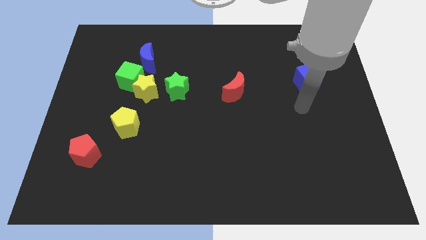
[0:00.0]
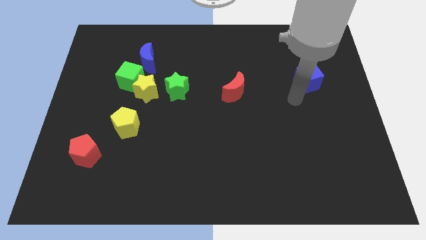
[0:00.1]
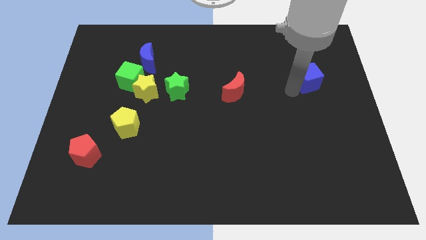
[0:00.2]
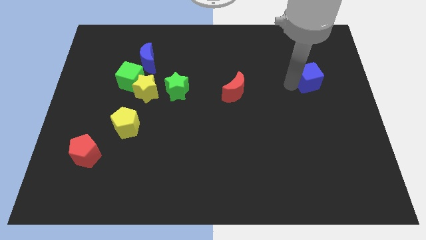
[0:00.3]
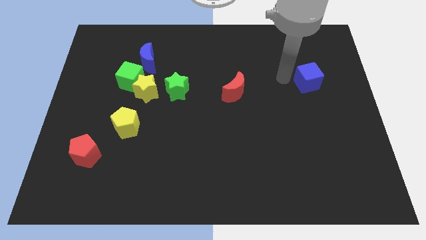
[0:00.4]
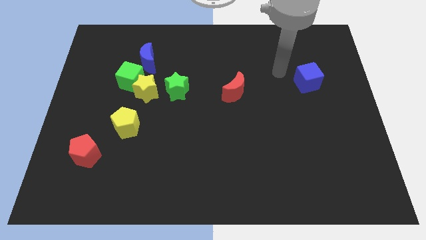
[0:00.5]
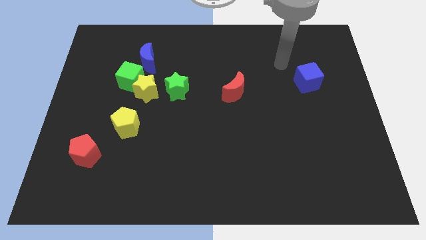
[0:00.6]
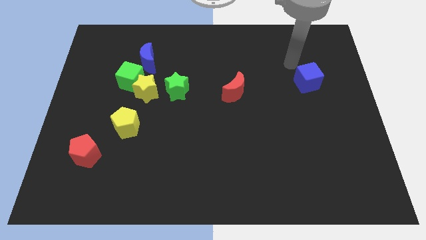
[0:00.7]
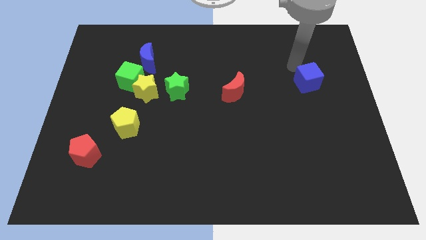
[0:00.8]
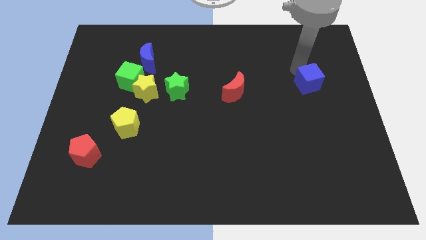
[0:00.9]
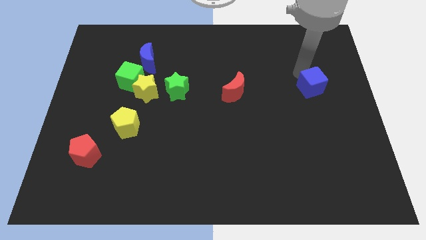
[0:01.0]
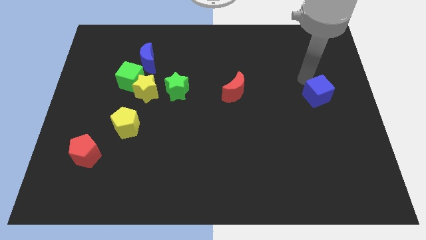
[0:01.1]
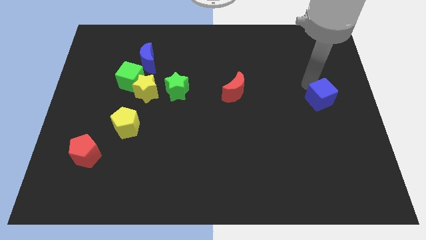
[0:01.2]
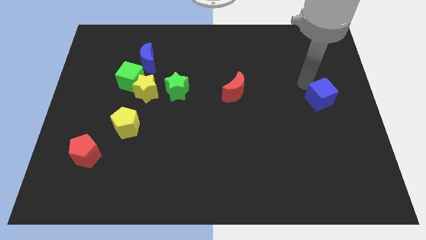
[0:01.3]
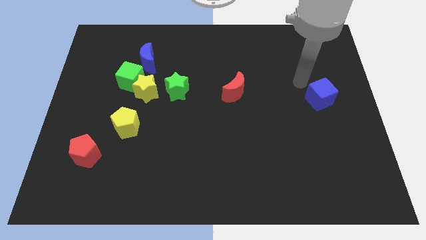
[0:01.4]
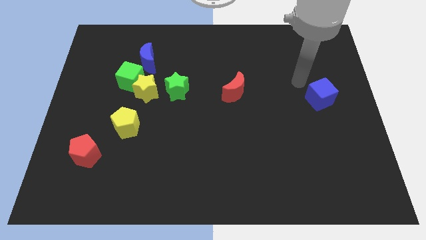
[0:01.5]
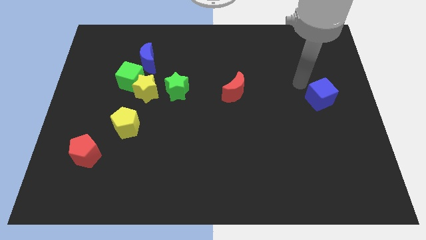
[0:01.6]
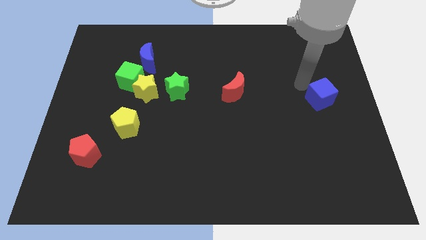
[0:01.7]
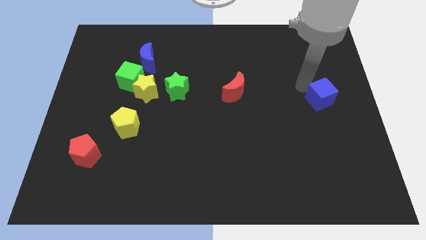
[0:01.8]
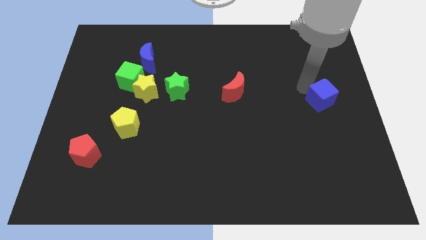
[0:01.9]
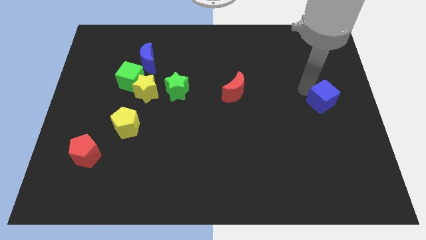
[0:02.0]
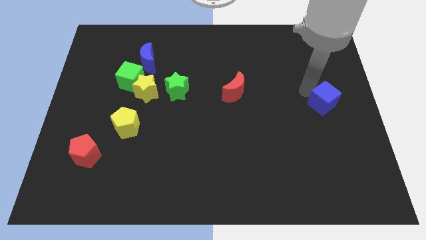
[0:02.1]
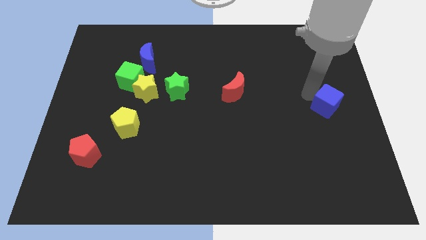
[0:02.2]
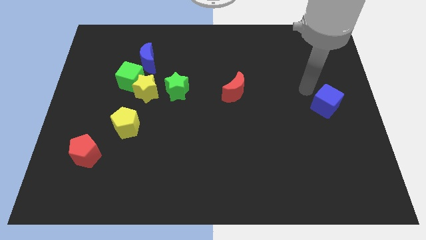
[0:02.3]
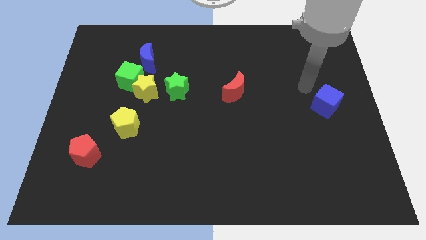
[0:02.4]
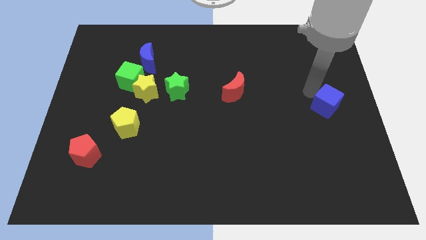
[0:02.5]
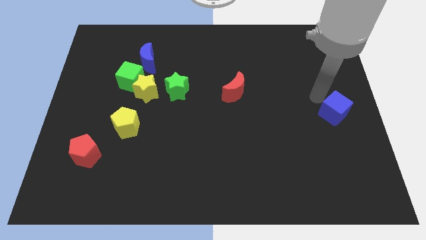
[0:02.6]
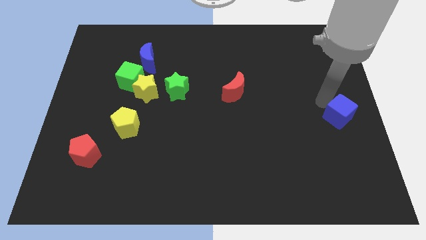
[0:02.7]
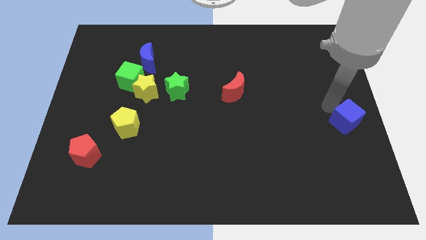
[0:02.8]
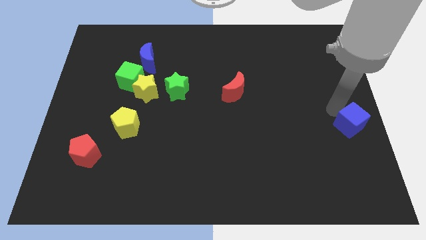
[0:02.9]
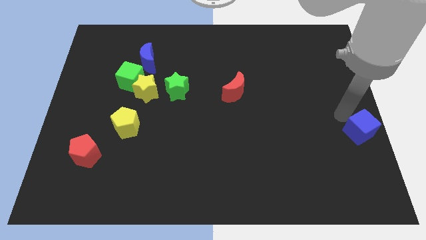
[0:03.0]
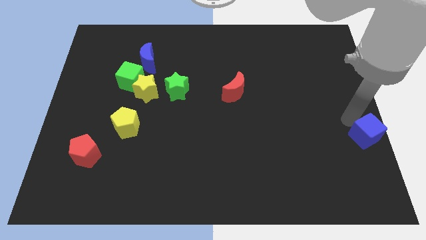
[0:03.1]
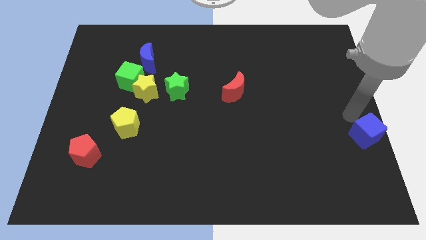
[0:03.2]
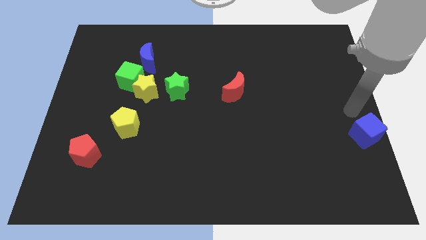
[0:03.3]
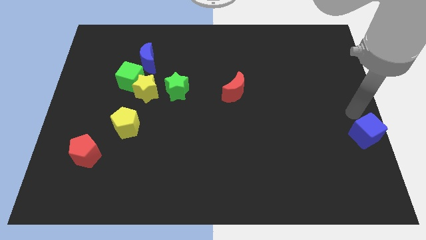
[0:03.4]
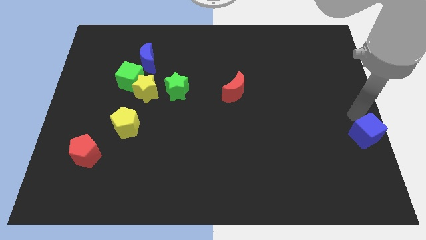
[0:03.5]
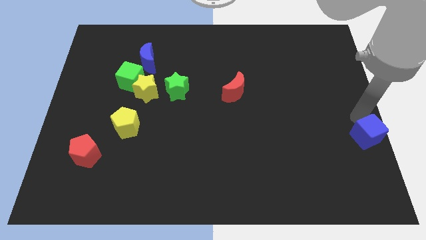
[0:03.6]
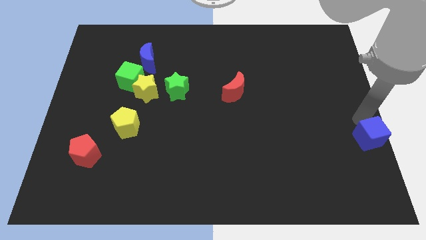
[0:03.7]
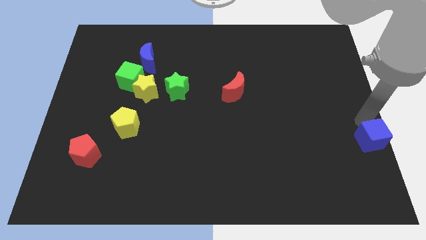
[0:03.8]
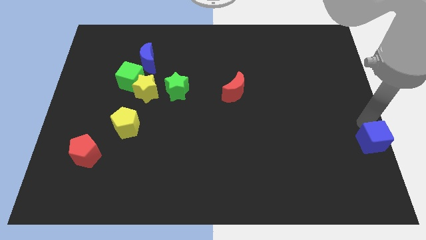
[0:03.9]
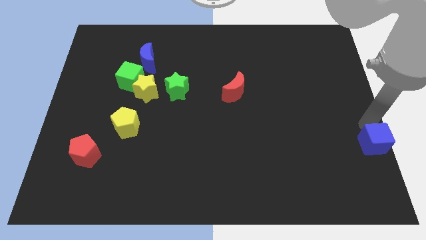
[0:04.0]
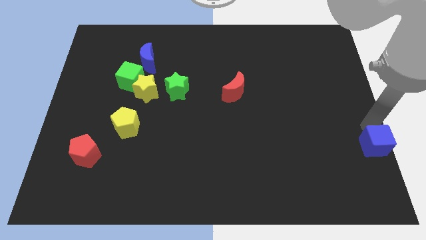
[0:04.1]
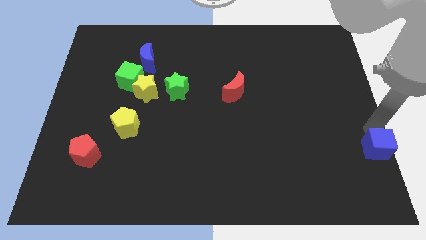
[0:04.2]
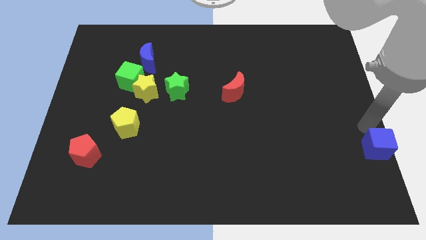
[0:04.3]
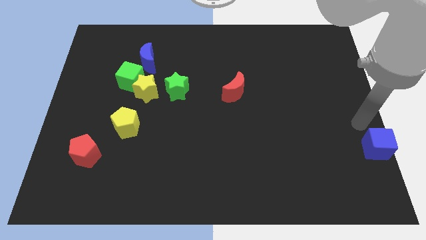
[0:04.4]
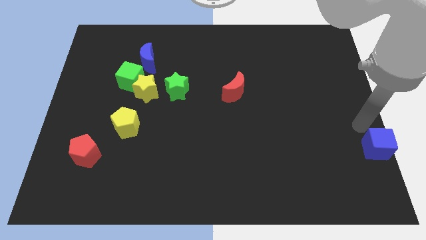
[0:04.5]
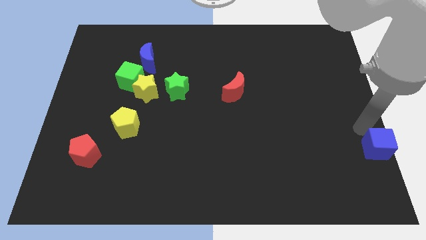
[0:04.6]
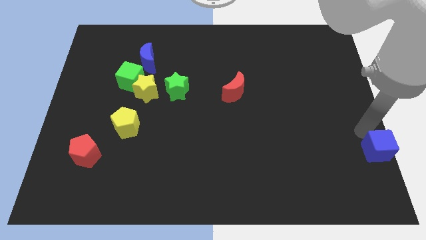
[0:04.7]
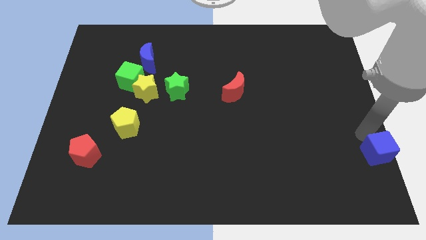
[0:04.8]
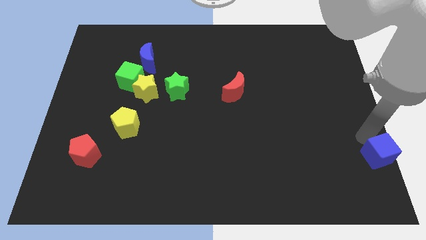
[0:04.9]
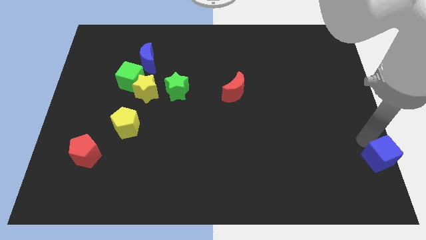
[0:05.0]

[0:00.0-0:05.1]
slide the blue cube to the lower right corner
